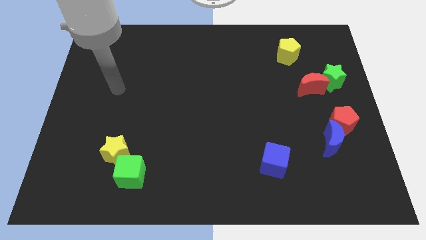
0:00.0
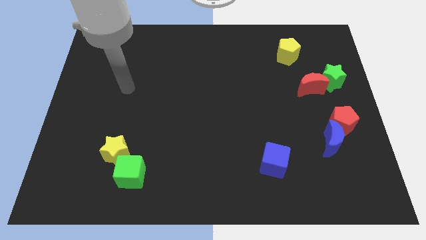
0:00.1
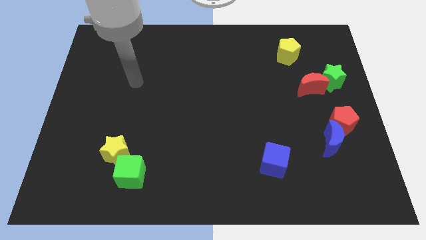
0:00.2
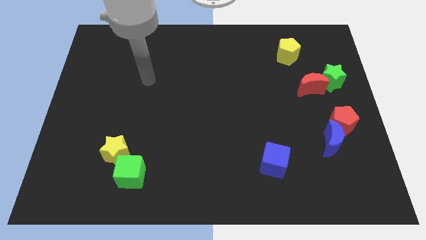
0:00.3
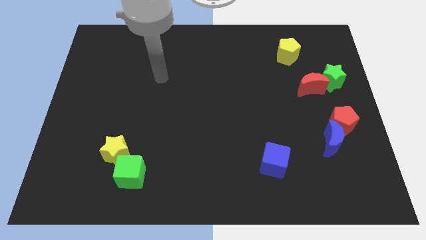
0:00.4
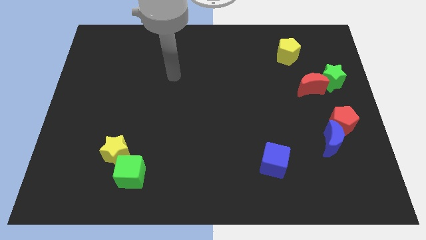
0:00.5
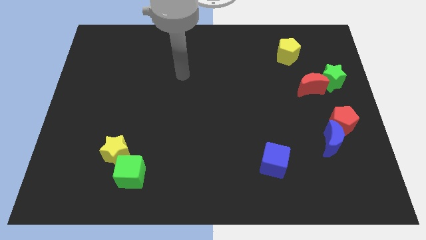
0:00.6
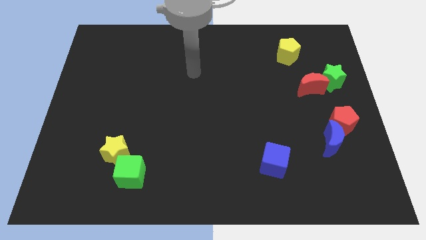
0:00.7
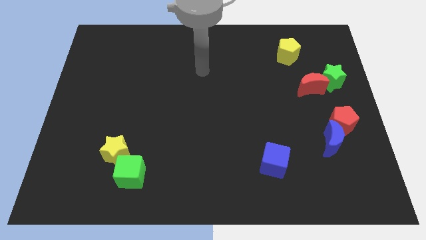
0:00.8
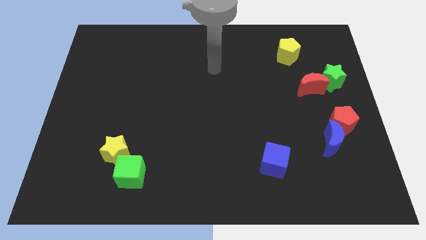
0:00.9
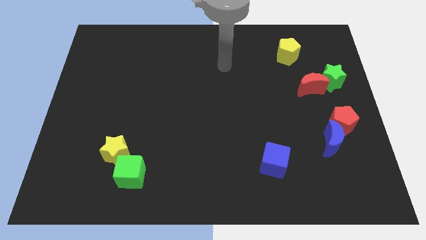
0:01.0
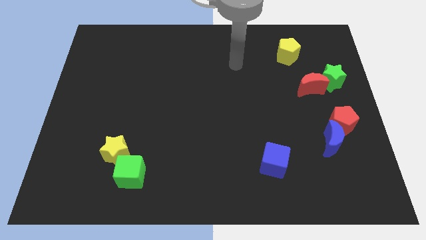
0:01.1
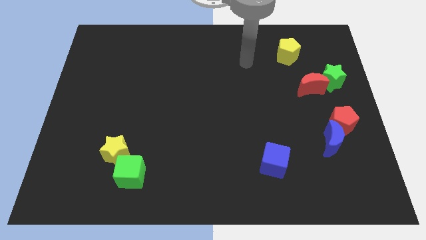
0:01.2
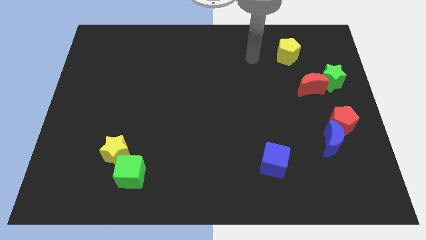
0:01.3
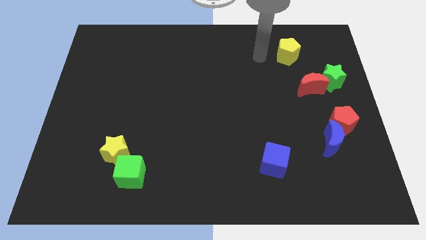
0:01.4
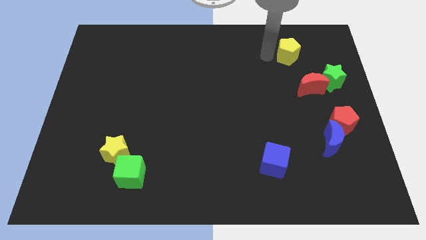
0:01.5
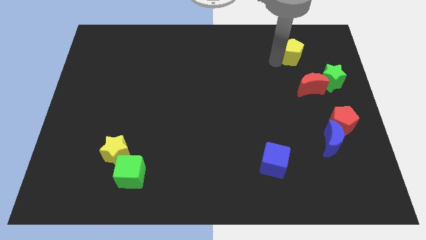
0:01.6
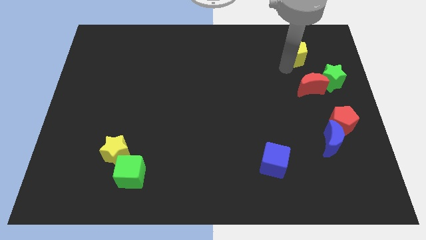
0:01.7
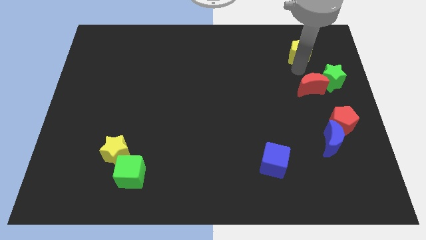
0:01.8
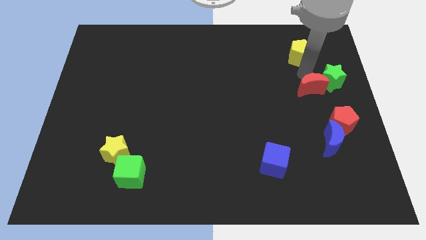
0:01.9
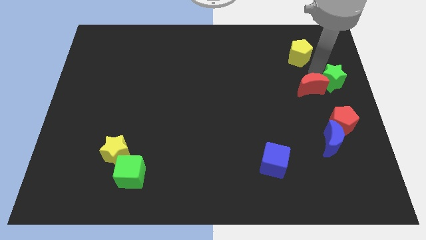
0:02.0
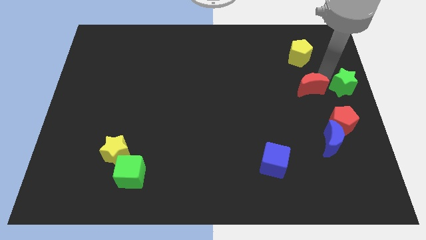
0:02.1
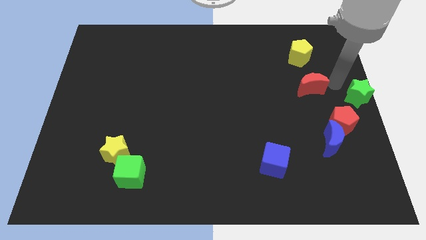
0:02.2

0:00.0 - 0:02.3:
pull the red moon apart from the green star

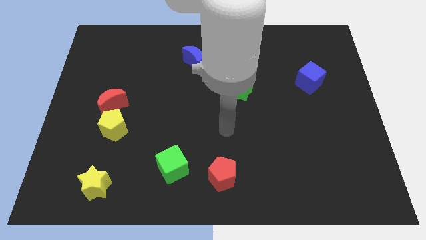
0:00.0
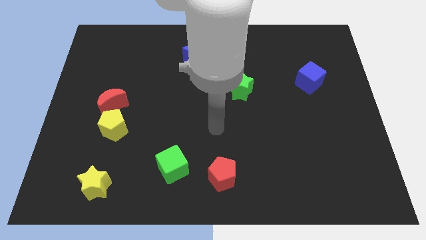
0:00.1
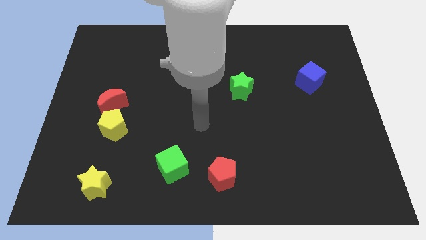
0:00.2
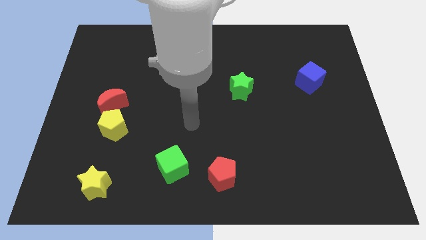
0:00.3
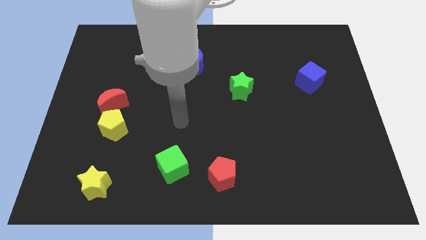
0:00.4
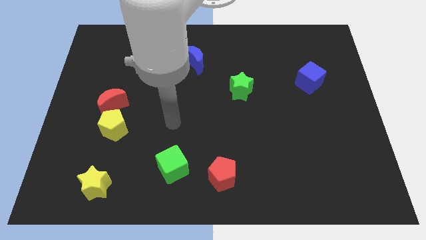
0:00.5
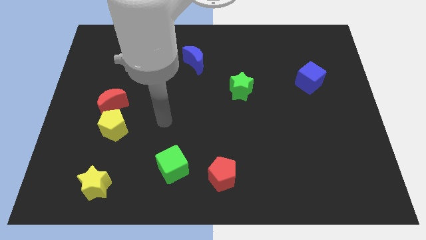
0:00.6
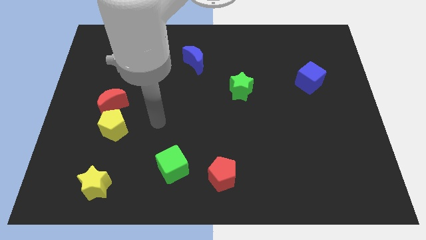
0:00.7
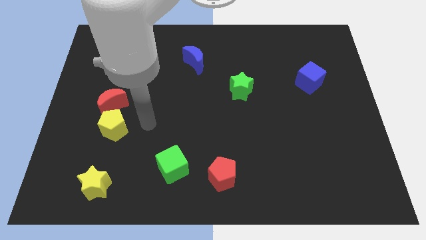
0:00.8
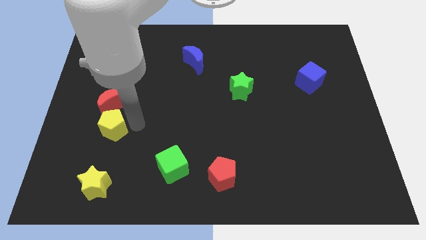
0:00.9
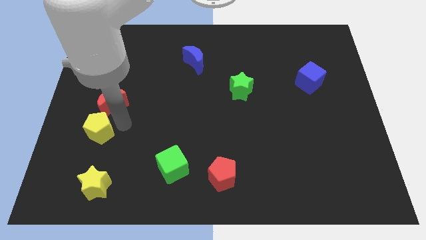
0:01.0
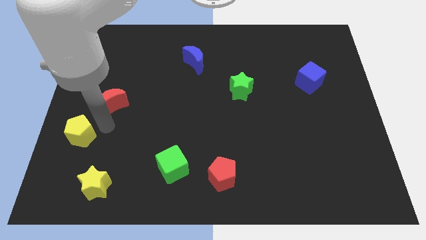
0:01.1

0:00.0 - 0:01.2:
pull the red moon apart from the yellow pentagon

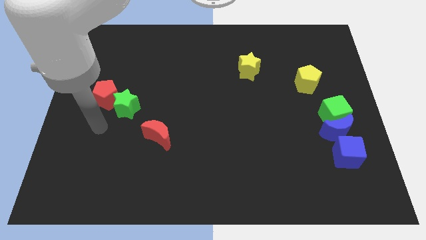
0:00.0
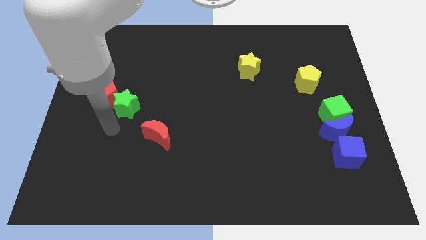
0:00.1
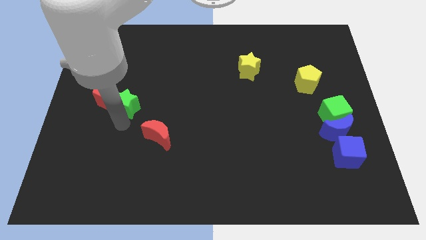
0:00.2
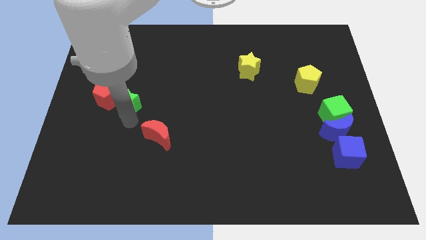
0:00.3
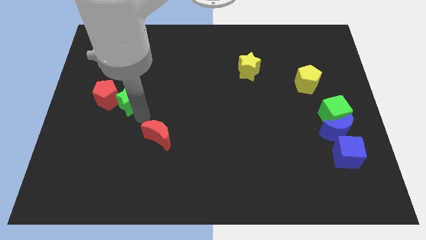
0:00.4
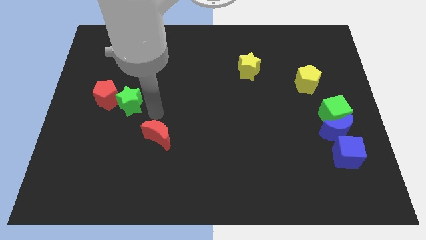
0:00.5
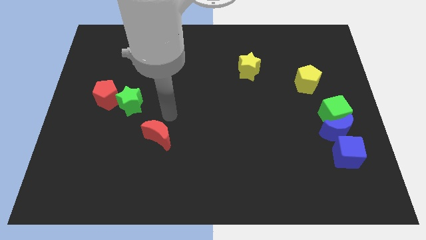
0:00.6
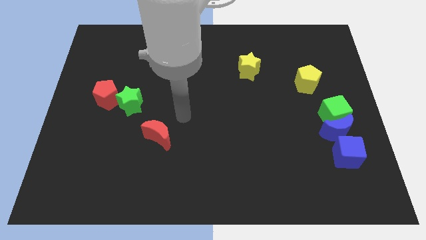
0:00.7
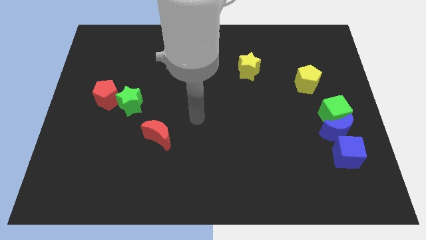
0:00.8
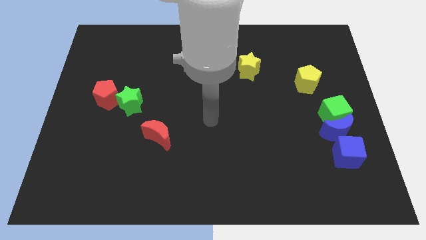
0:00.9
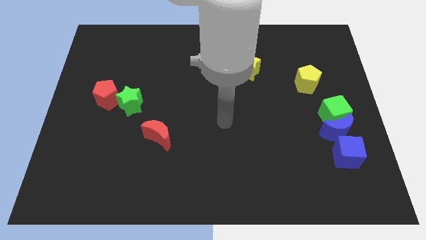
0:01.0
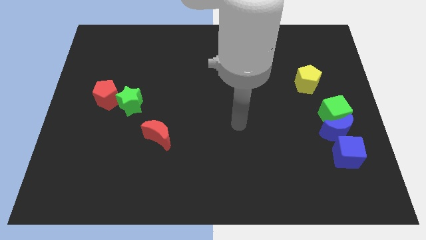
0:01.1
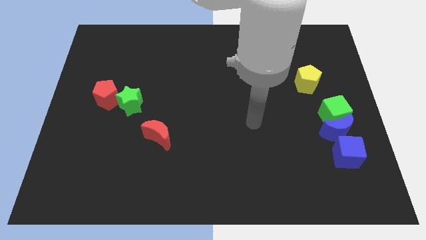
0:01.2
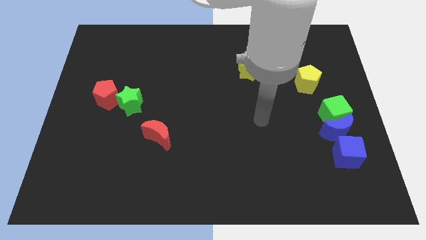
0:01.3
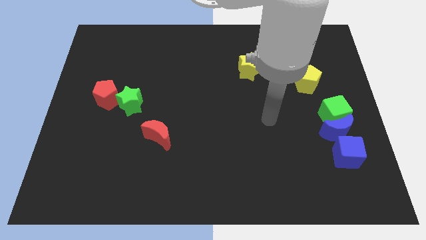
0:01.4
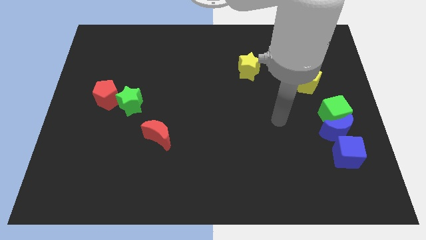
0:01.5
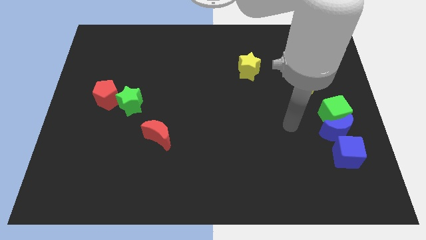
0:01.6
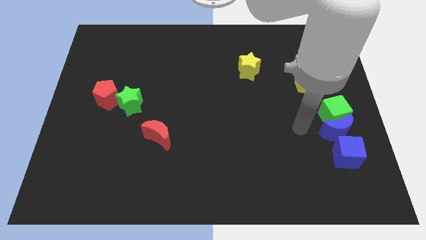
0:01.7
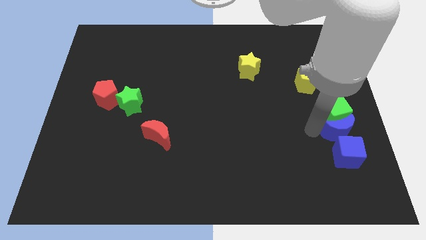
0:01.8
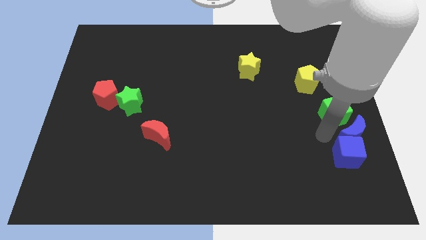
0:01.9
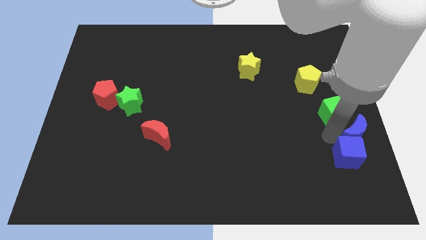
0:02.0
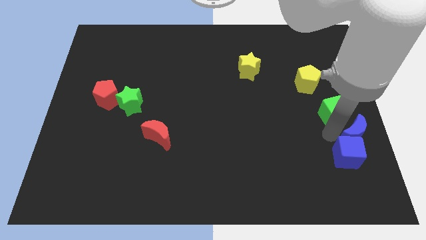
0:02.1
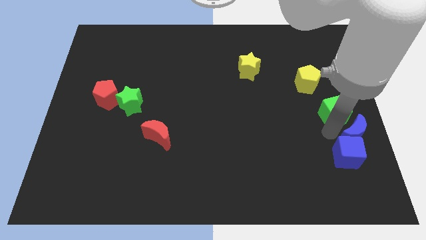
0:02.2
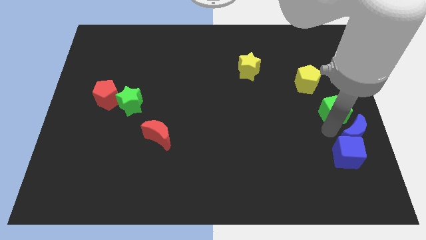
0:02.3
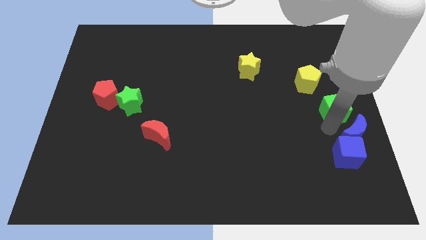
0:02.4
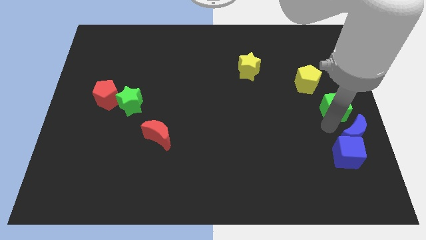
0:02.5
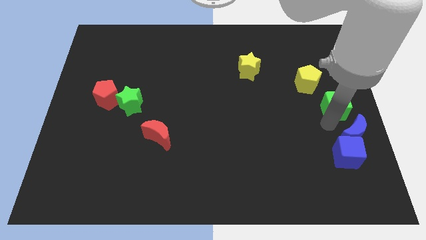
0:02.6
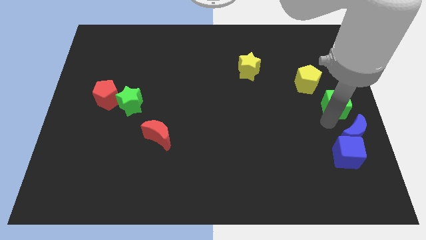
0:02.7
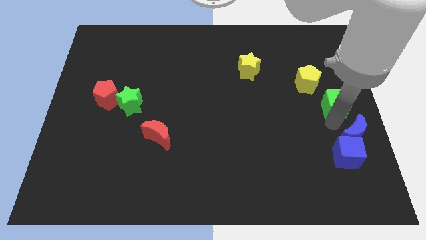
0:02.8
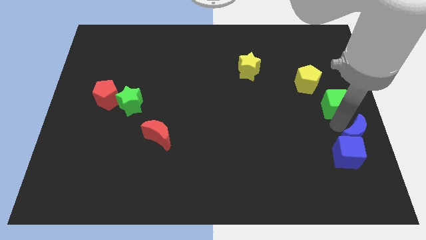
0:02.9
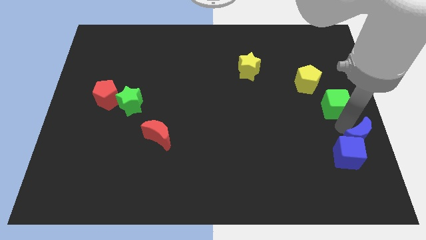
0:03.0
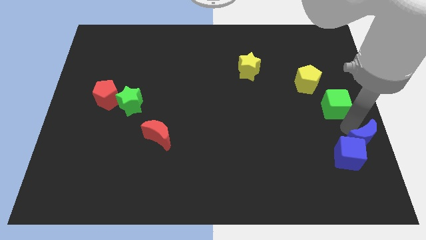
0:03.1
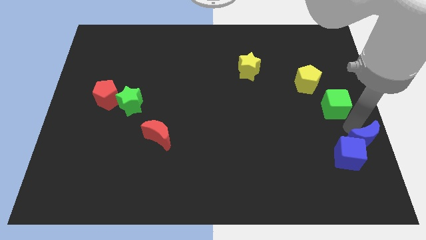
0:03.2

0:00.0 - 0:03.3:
pull the green cube apart from the blue moon

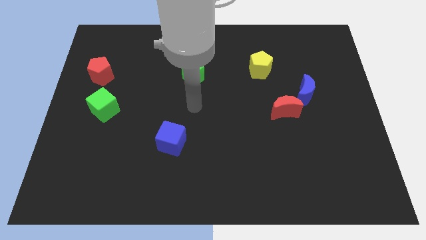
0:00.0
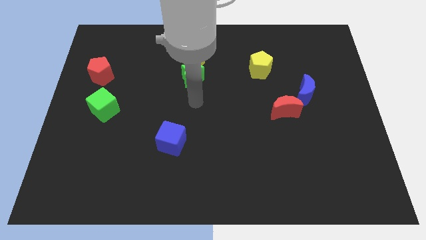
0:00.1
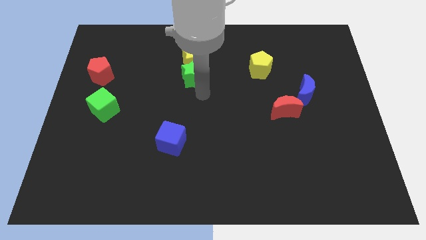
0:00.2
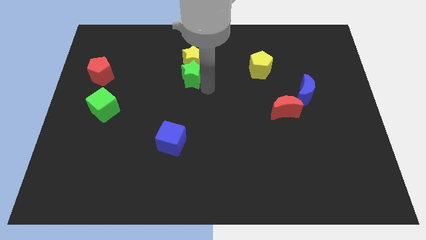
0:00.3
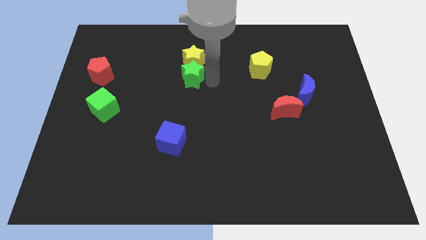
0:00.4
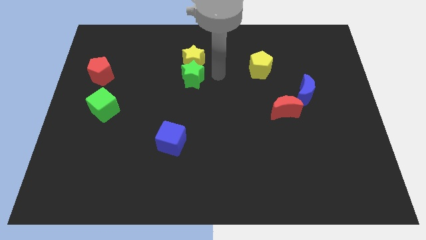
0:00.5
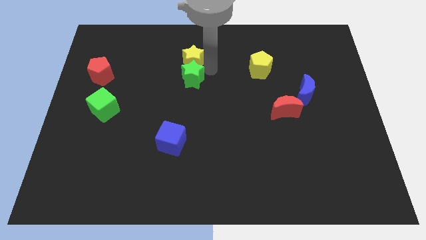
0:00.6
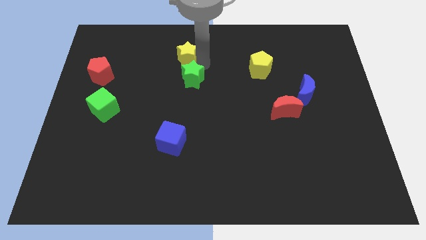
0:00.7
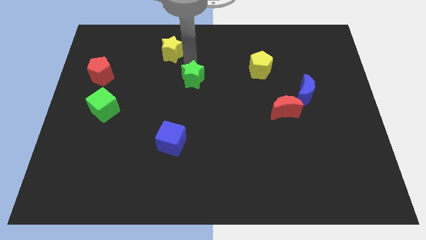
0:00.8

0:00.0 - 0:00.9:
pull the green star apart from the yellow star

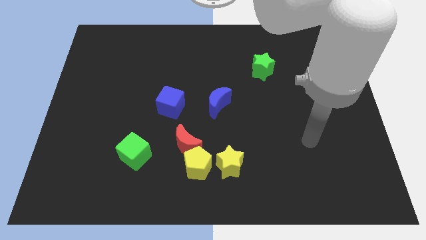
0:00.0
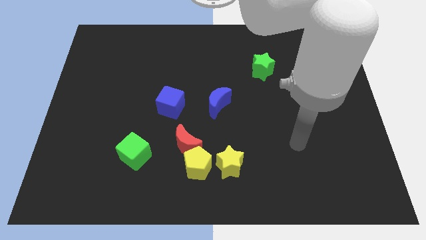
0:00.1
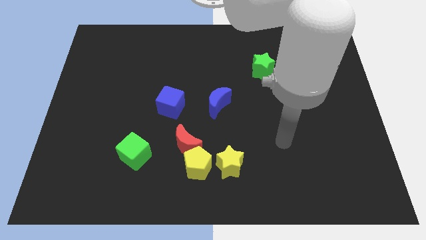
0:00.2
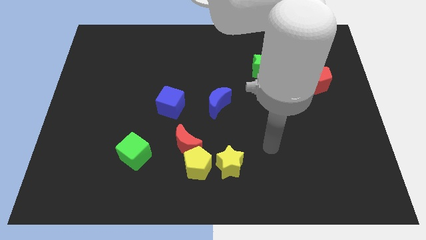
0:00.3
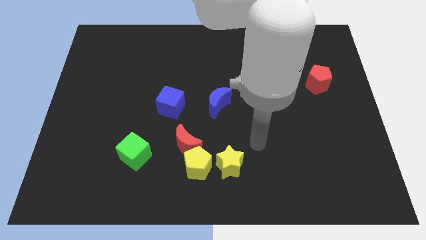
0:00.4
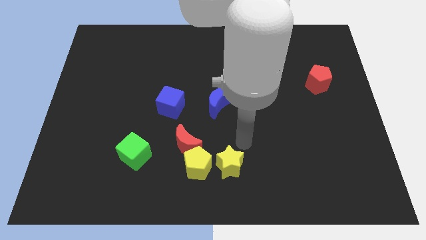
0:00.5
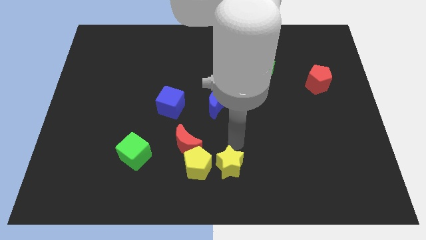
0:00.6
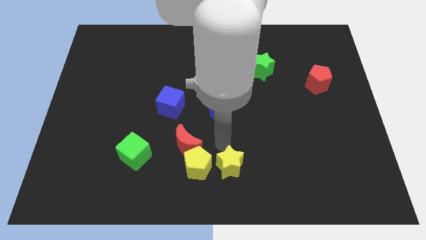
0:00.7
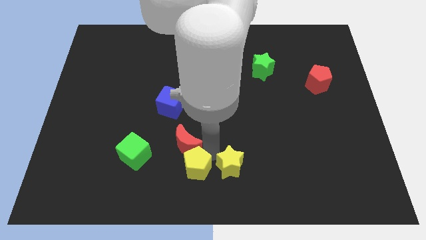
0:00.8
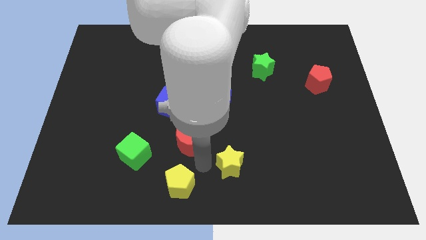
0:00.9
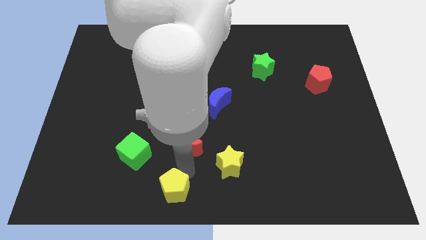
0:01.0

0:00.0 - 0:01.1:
move the red moon away from the yellow pentagon

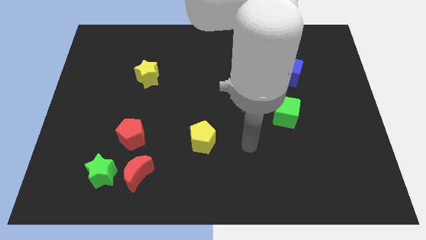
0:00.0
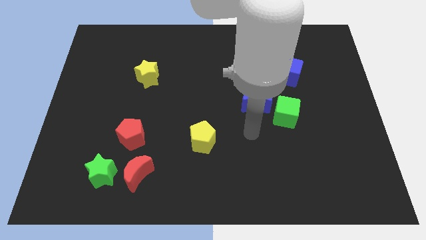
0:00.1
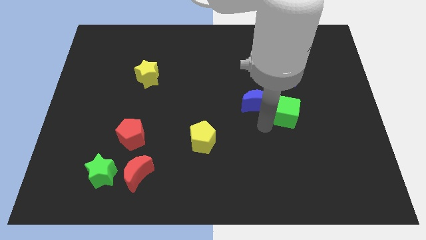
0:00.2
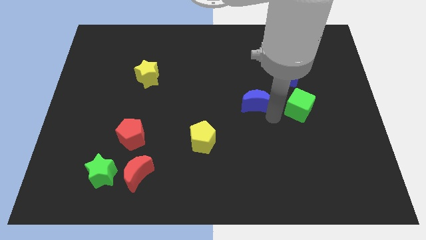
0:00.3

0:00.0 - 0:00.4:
move the blue moon away from the green cube
